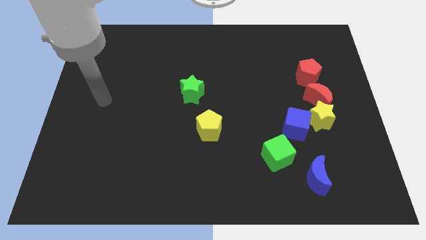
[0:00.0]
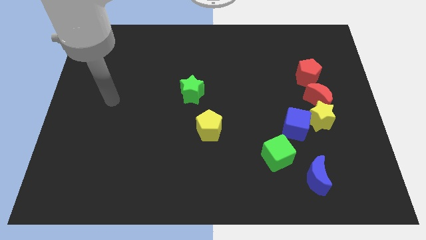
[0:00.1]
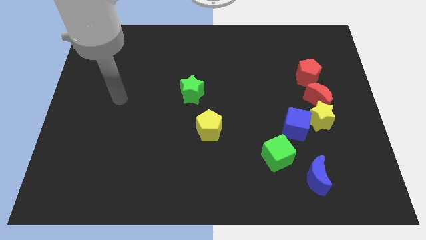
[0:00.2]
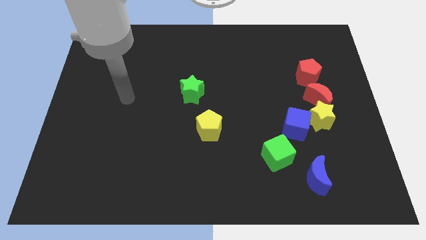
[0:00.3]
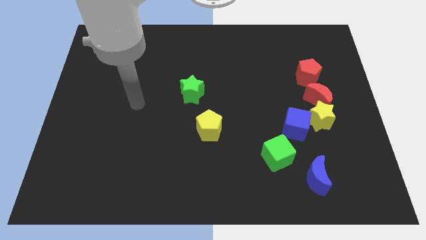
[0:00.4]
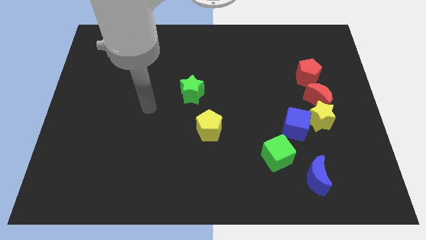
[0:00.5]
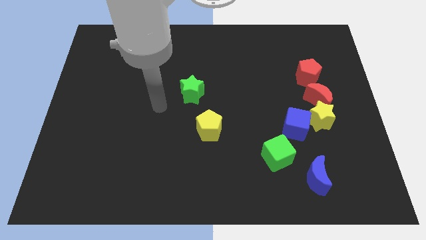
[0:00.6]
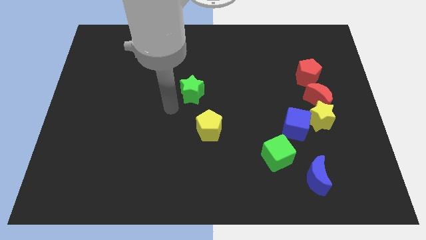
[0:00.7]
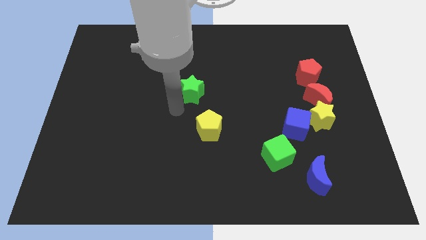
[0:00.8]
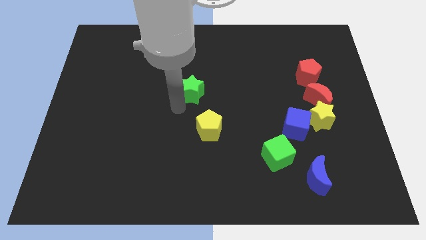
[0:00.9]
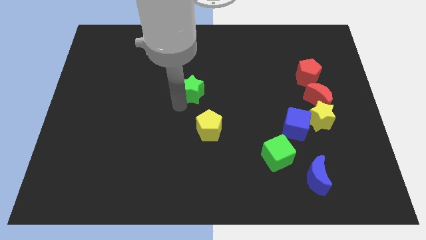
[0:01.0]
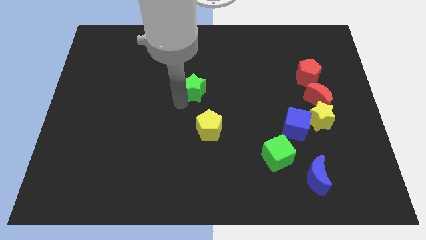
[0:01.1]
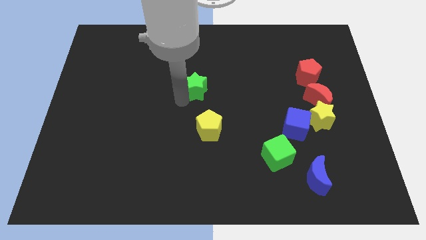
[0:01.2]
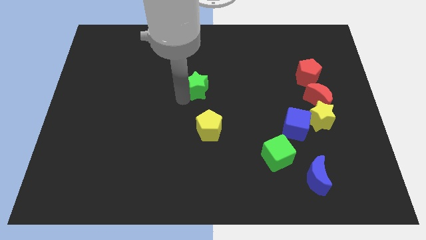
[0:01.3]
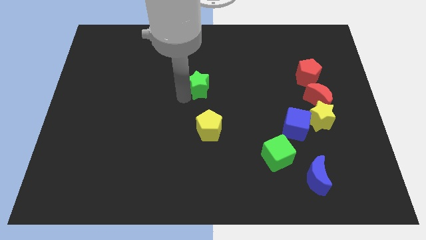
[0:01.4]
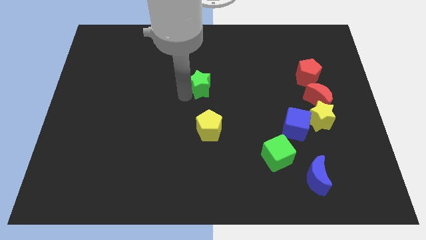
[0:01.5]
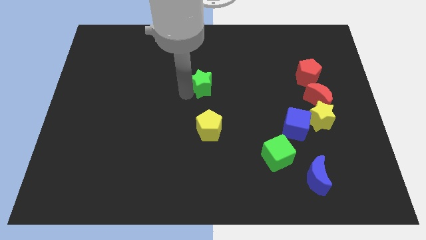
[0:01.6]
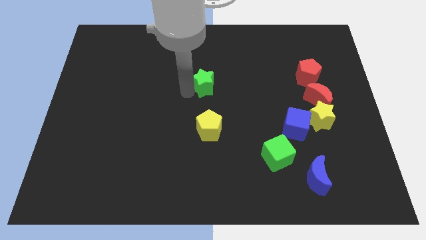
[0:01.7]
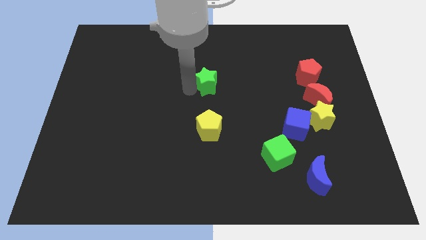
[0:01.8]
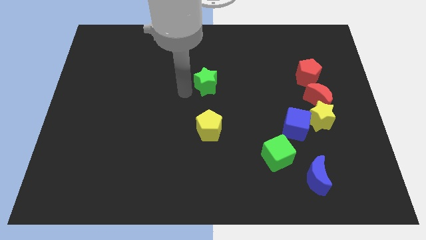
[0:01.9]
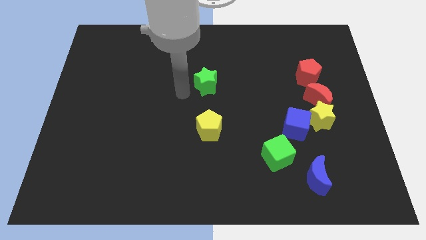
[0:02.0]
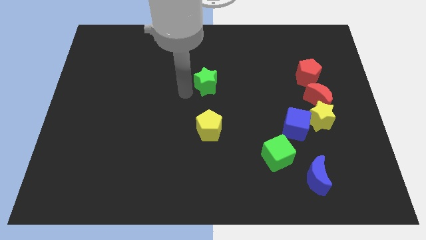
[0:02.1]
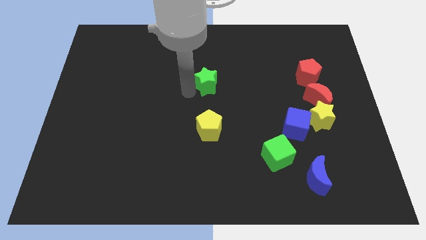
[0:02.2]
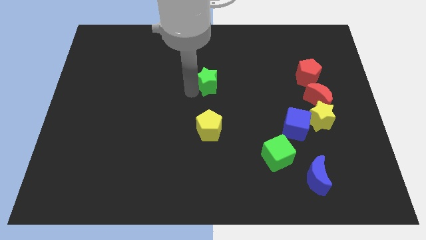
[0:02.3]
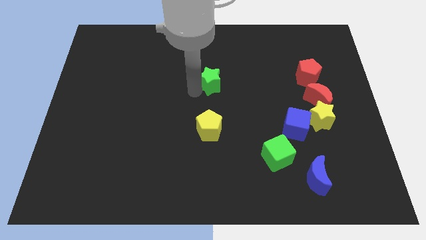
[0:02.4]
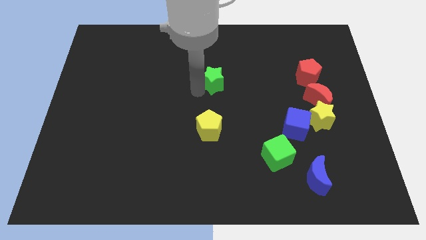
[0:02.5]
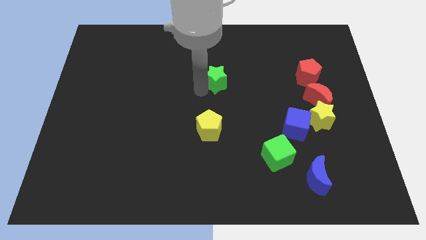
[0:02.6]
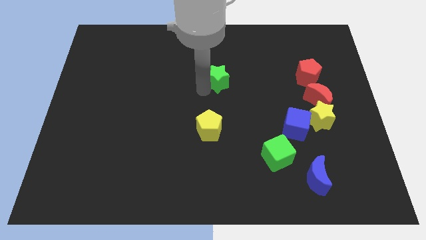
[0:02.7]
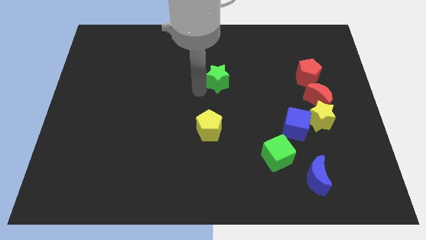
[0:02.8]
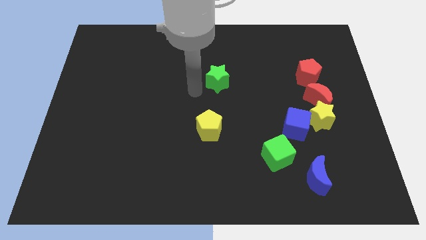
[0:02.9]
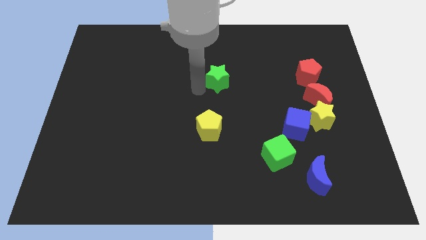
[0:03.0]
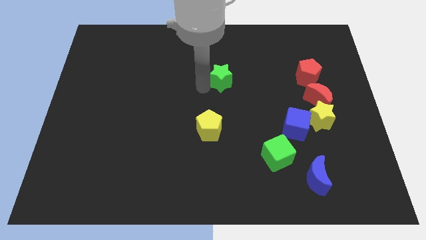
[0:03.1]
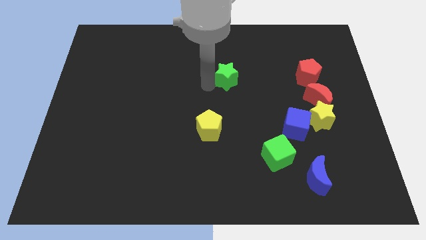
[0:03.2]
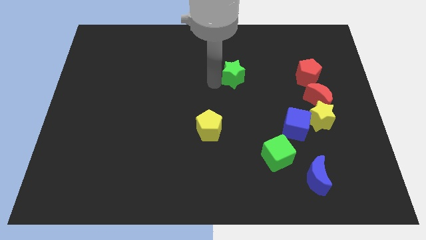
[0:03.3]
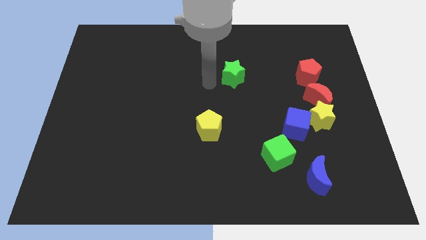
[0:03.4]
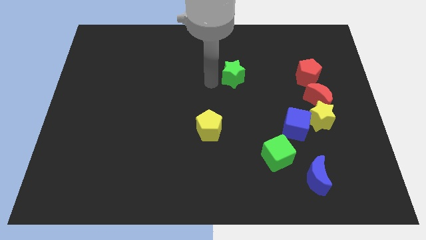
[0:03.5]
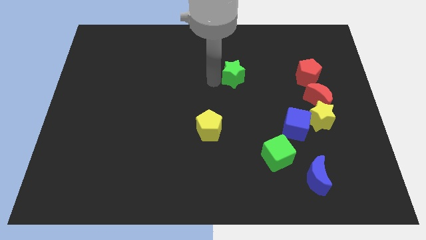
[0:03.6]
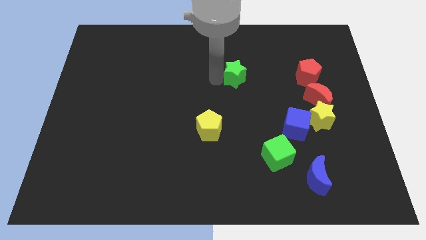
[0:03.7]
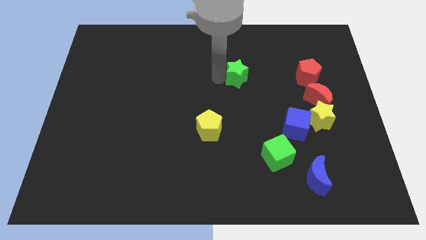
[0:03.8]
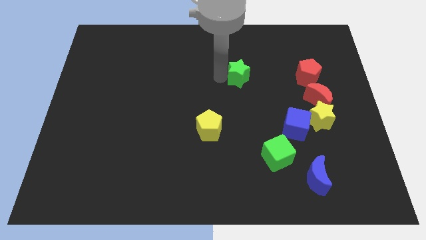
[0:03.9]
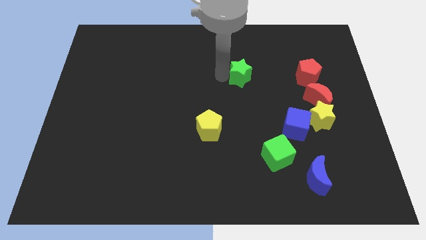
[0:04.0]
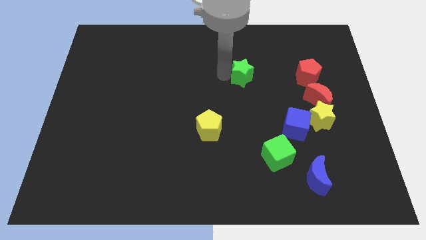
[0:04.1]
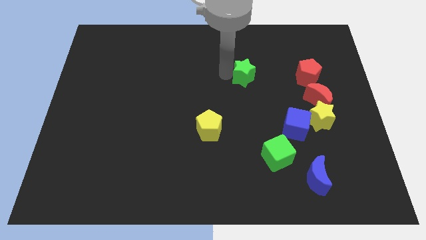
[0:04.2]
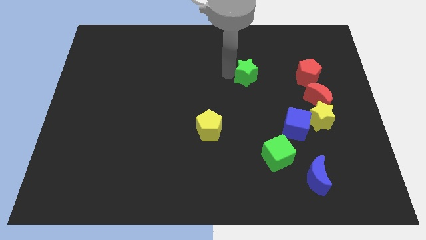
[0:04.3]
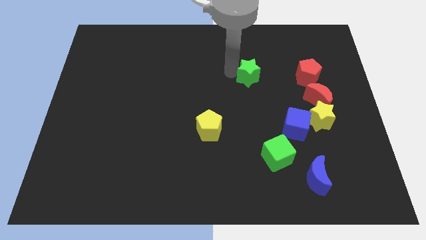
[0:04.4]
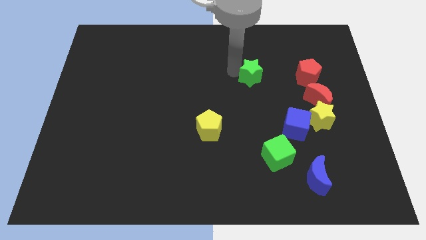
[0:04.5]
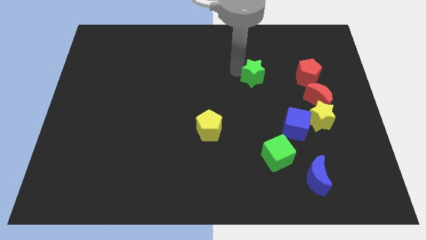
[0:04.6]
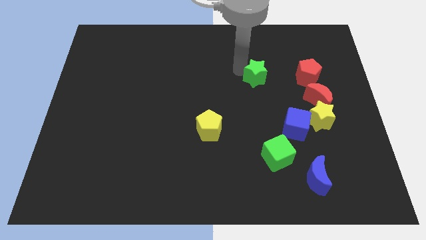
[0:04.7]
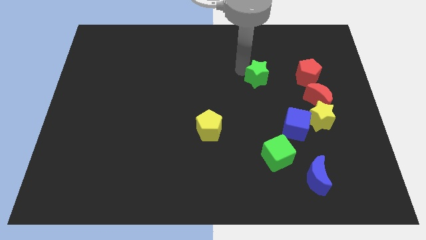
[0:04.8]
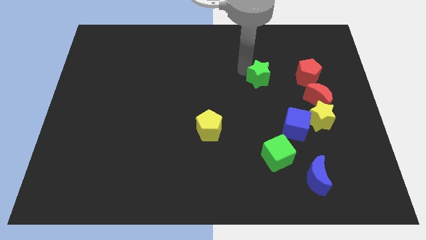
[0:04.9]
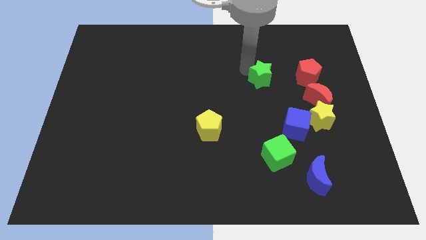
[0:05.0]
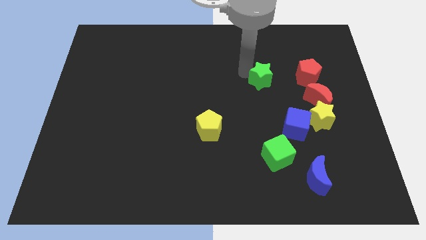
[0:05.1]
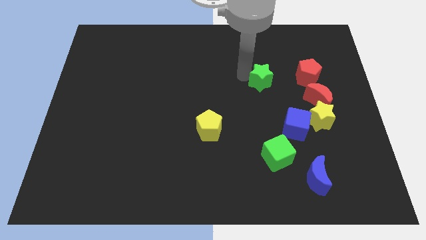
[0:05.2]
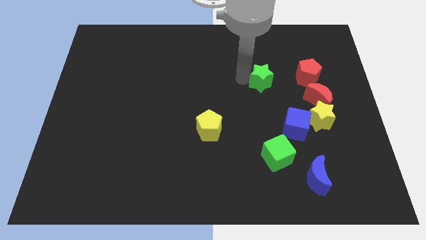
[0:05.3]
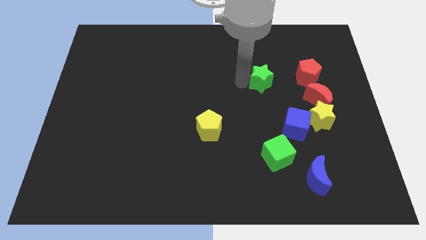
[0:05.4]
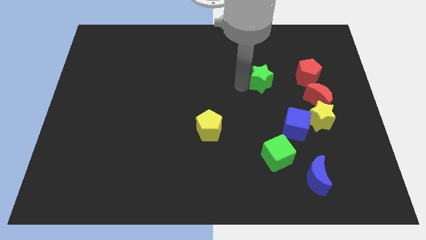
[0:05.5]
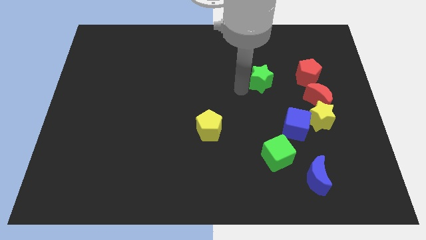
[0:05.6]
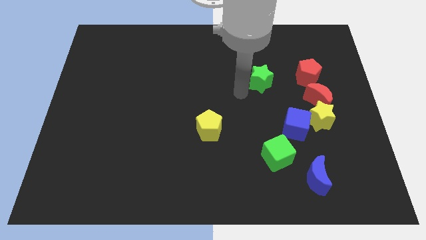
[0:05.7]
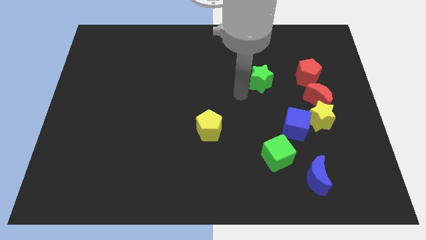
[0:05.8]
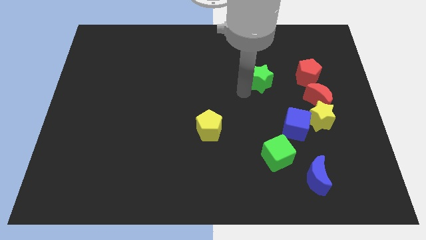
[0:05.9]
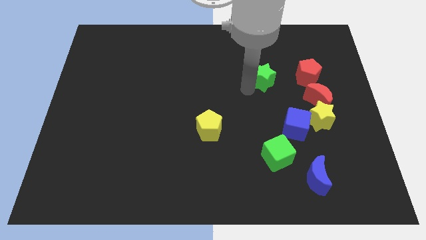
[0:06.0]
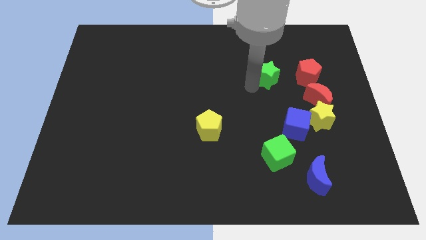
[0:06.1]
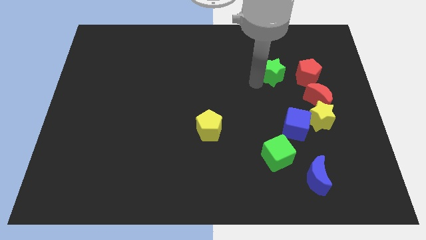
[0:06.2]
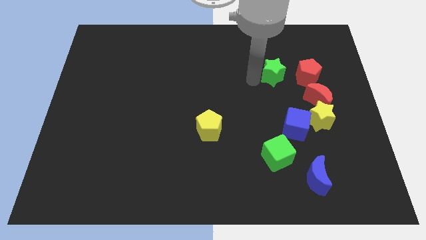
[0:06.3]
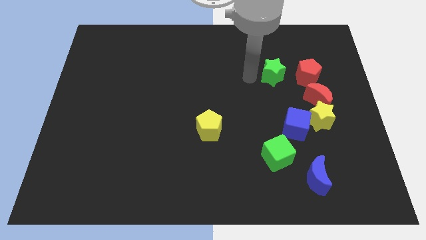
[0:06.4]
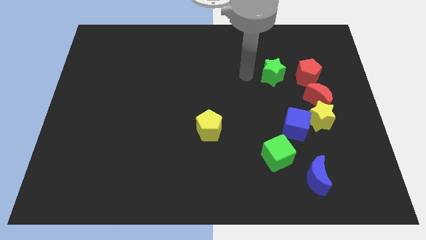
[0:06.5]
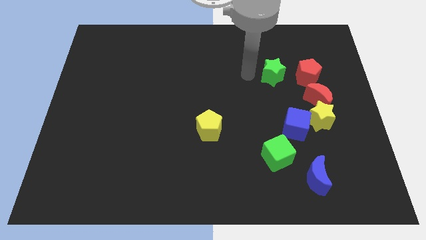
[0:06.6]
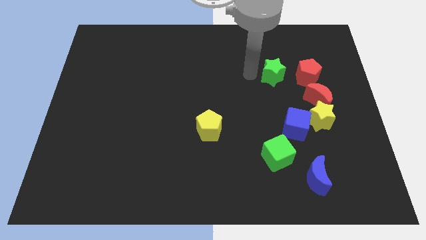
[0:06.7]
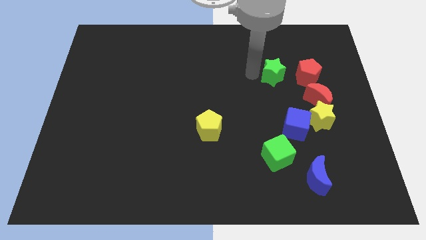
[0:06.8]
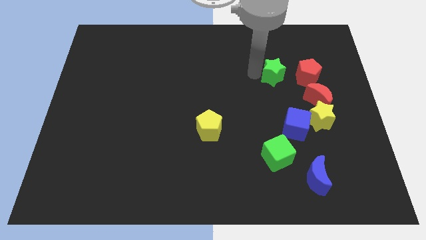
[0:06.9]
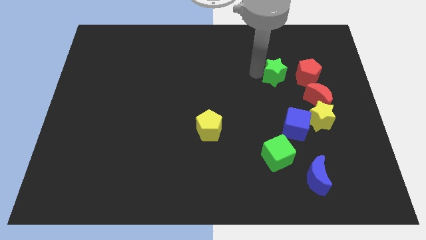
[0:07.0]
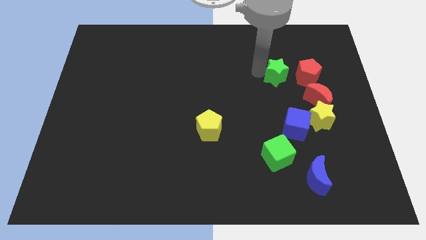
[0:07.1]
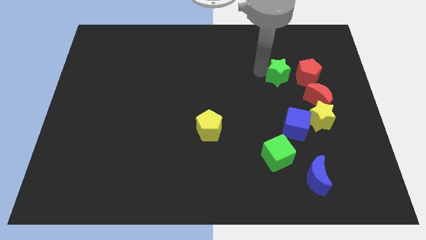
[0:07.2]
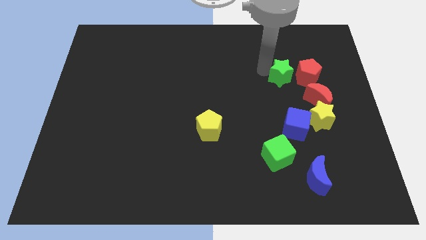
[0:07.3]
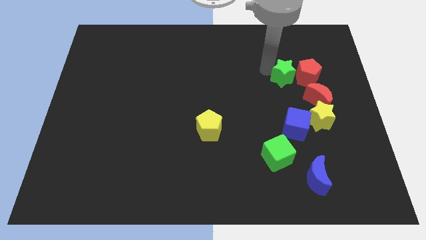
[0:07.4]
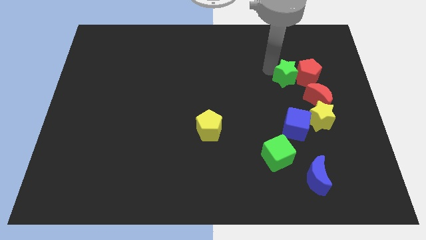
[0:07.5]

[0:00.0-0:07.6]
slide the green star towards the red pentagon

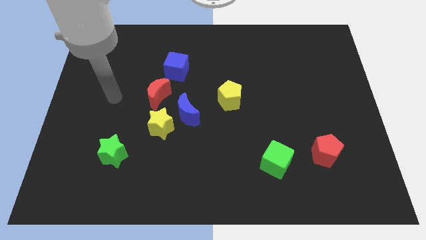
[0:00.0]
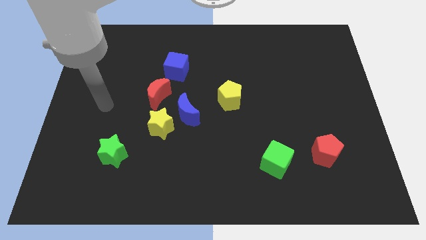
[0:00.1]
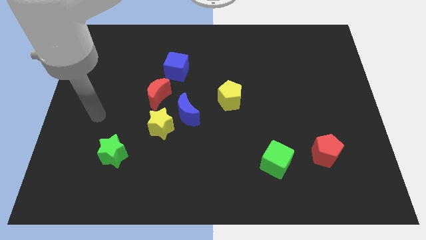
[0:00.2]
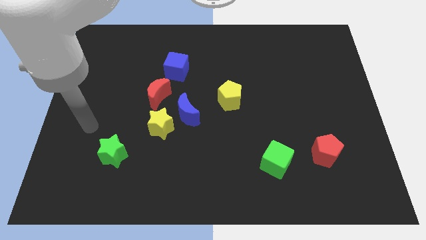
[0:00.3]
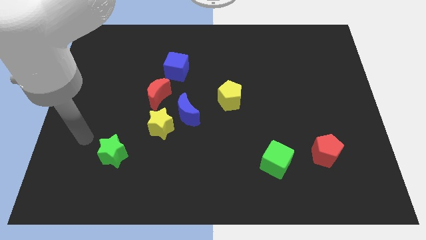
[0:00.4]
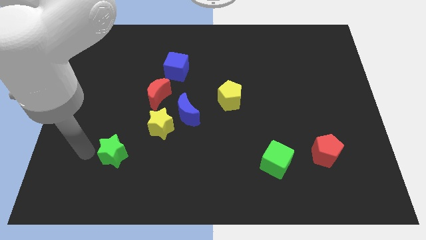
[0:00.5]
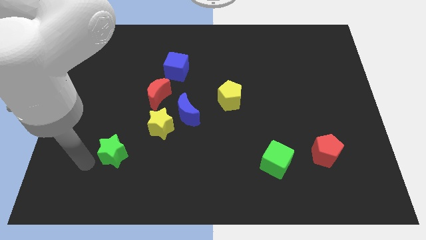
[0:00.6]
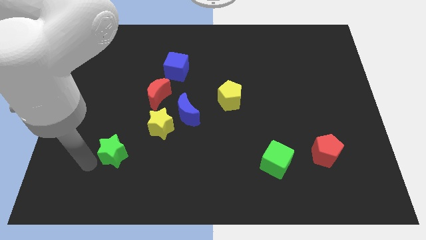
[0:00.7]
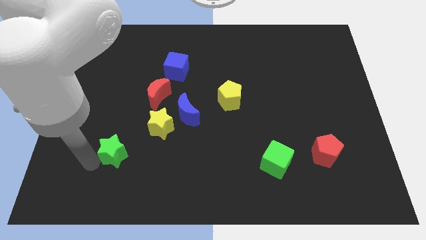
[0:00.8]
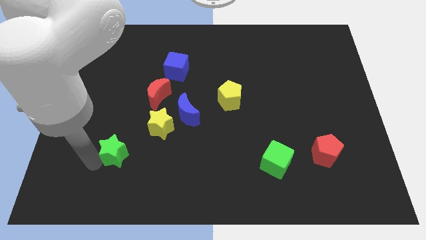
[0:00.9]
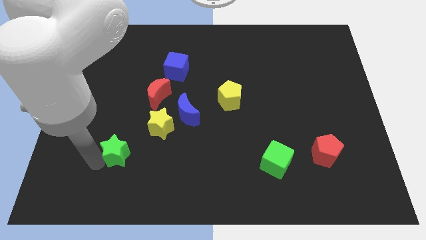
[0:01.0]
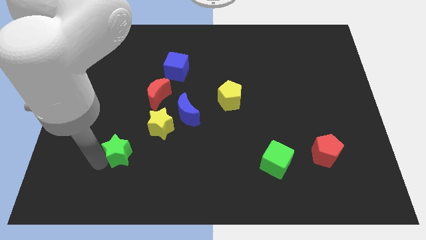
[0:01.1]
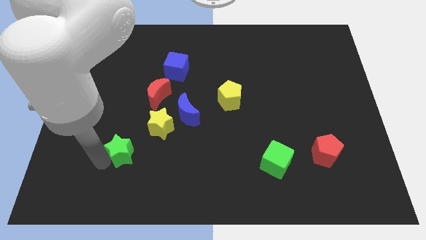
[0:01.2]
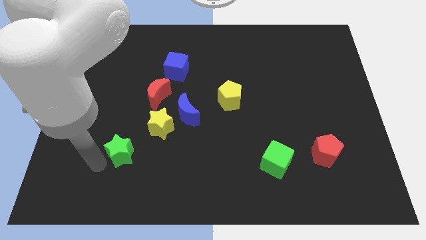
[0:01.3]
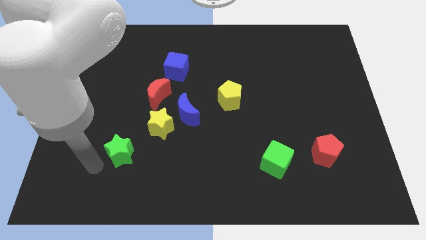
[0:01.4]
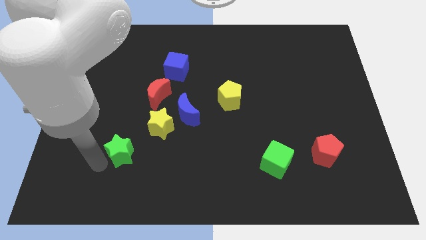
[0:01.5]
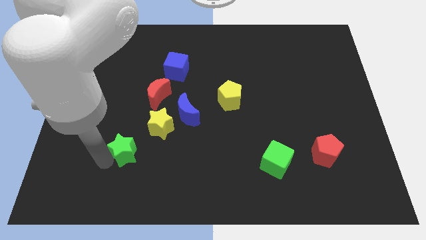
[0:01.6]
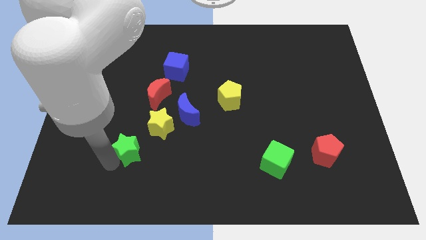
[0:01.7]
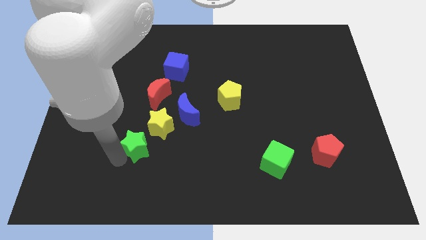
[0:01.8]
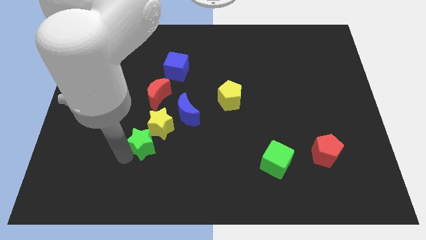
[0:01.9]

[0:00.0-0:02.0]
move the green star to the yellow star
